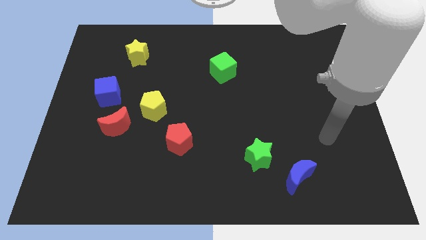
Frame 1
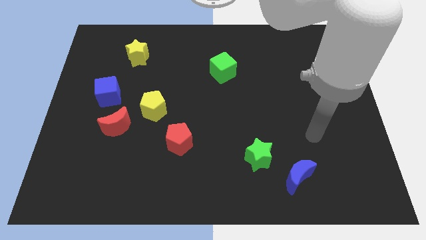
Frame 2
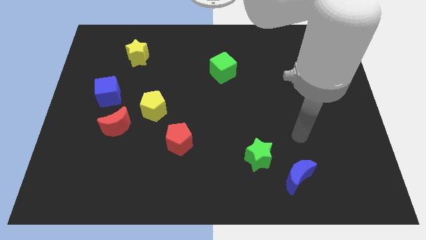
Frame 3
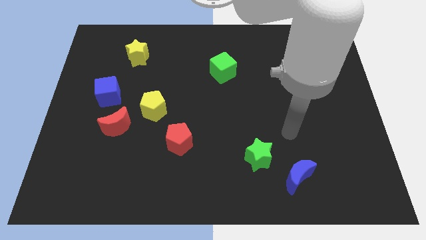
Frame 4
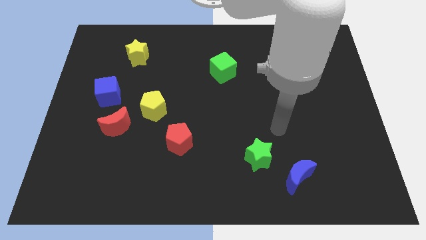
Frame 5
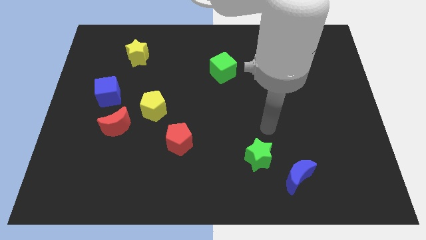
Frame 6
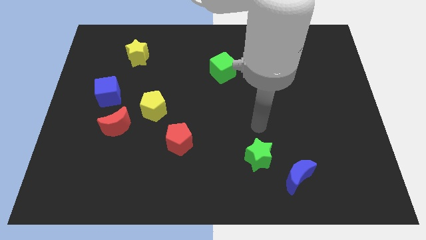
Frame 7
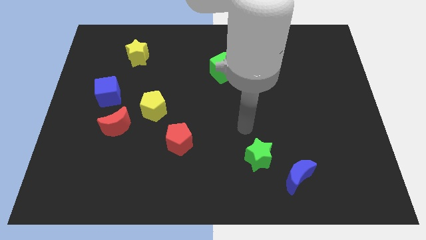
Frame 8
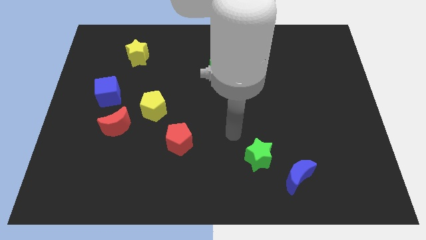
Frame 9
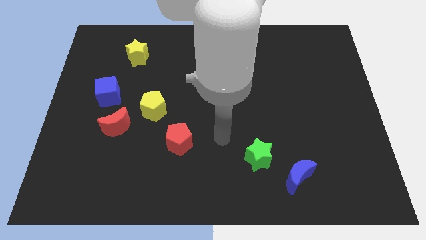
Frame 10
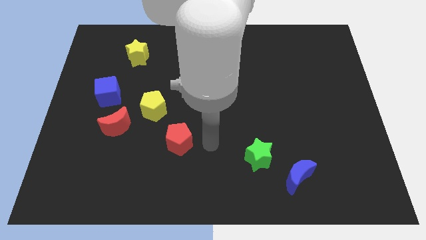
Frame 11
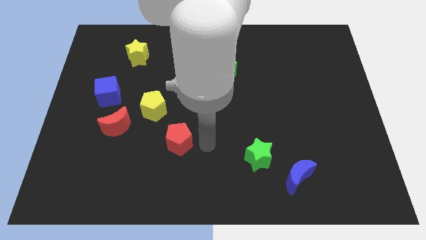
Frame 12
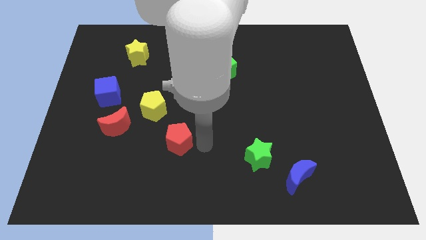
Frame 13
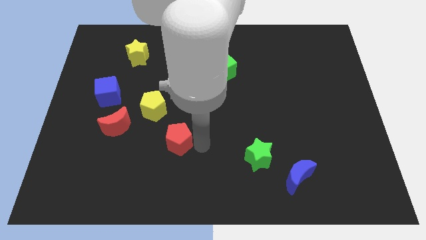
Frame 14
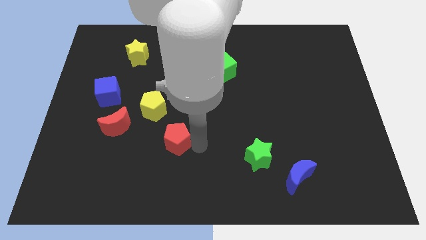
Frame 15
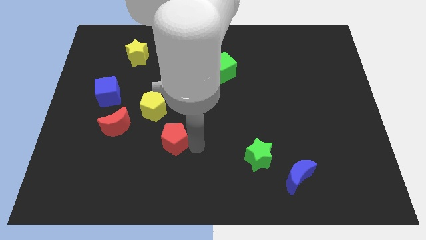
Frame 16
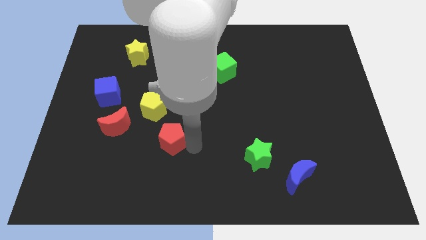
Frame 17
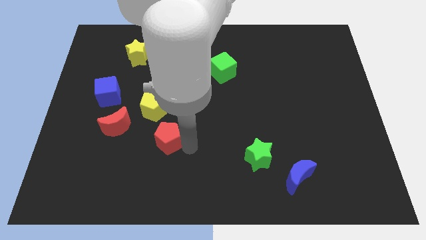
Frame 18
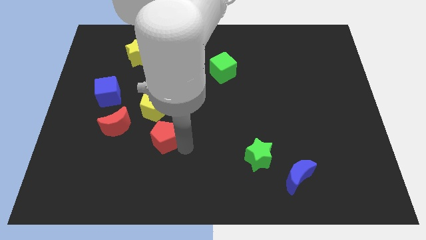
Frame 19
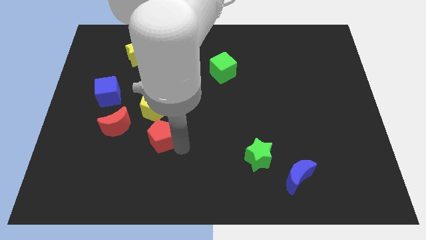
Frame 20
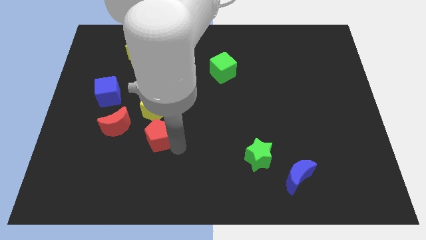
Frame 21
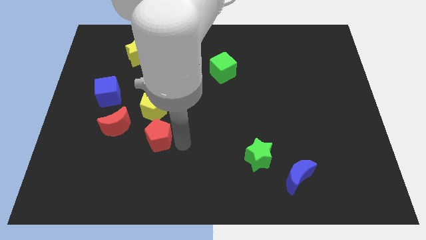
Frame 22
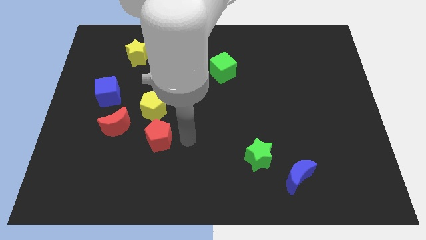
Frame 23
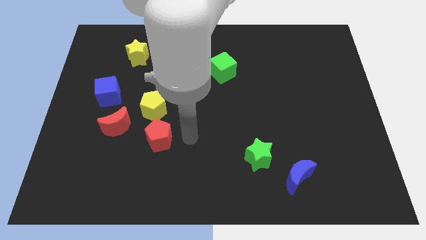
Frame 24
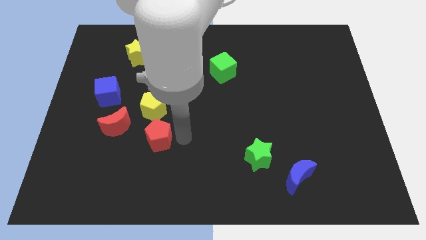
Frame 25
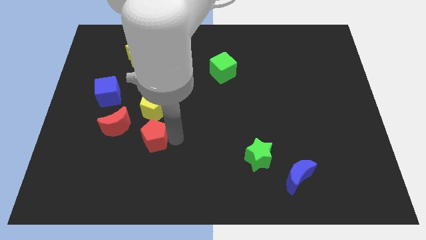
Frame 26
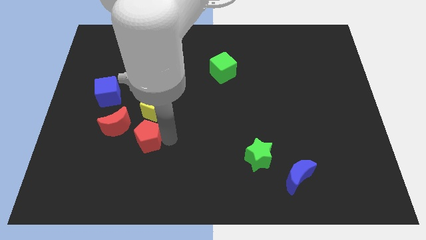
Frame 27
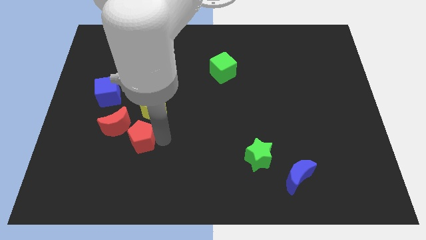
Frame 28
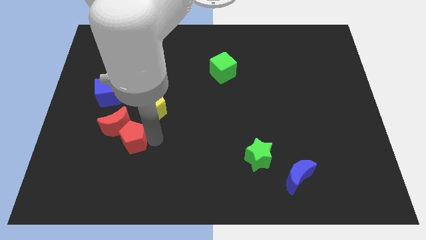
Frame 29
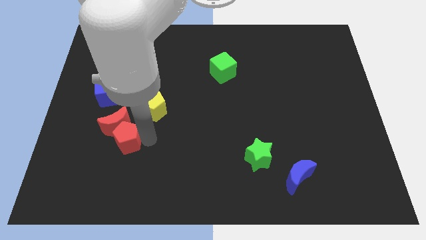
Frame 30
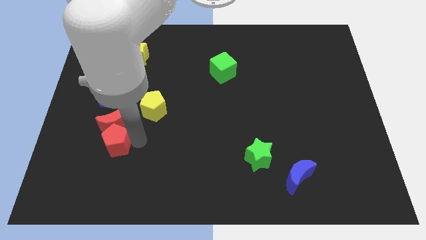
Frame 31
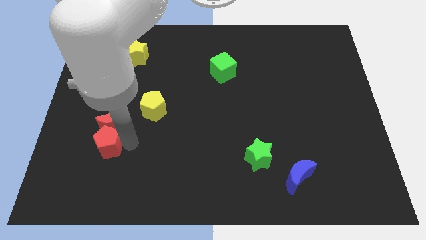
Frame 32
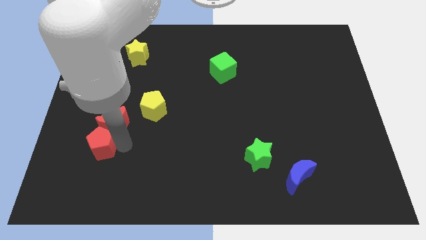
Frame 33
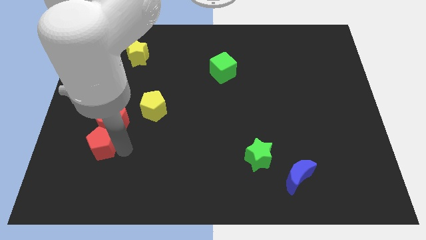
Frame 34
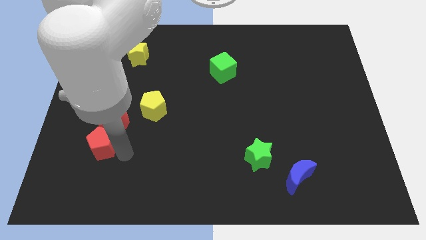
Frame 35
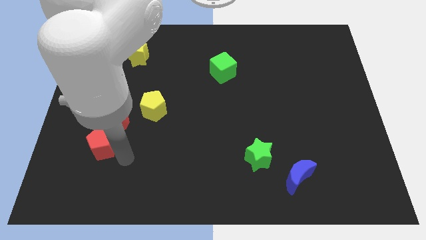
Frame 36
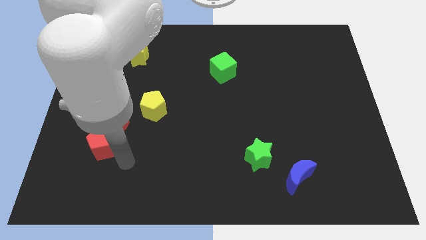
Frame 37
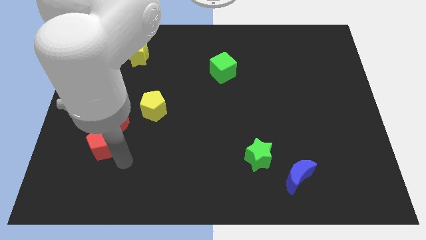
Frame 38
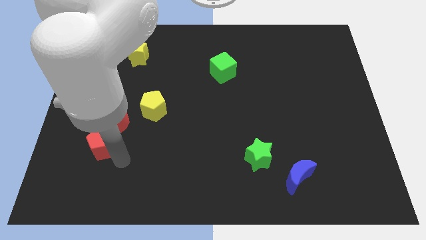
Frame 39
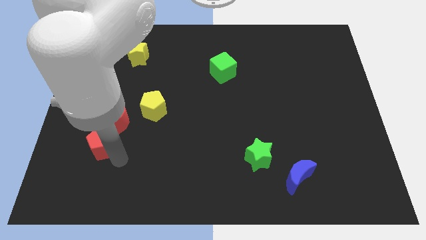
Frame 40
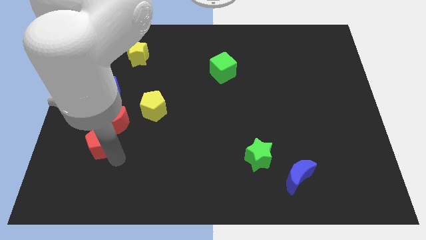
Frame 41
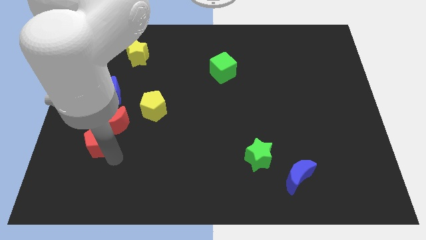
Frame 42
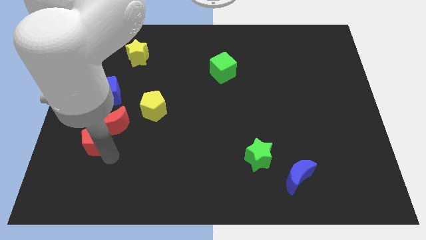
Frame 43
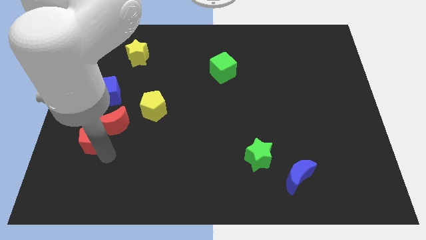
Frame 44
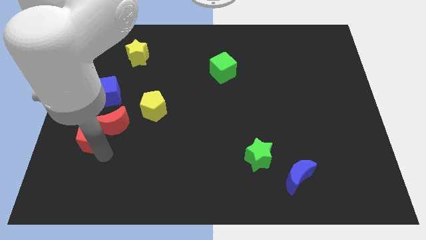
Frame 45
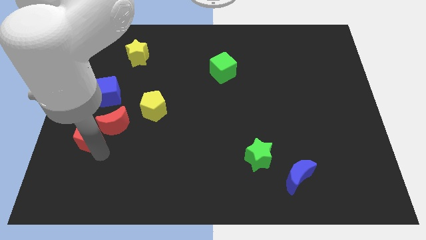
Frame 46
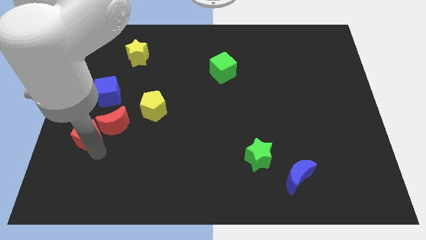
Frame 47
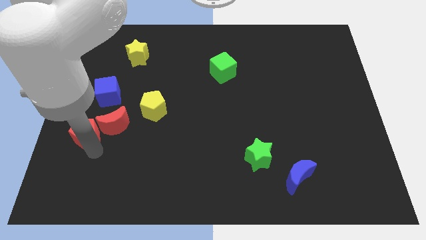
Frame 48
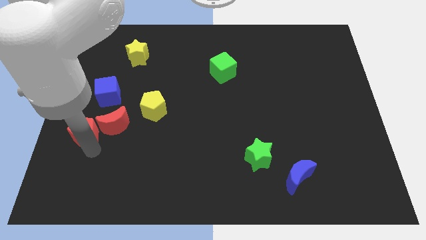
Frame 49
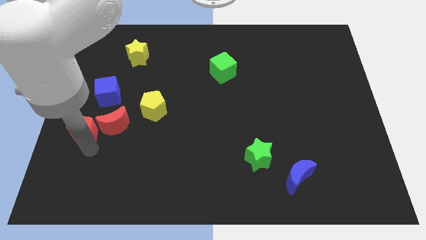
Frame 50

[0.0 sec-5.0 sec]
slide the red pentagon to the left side

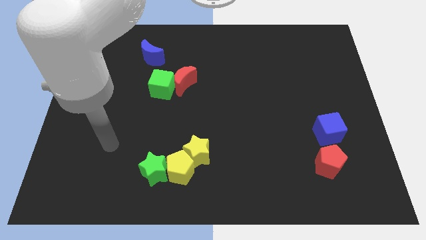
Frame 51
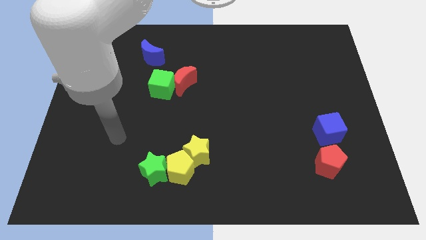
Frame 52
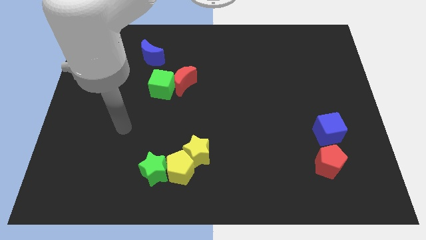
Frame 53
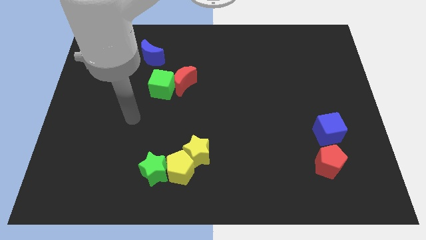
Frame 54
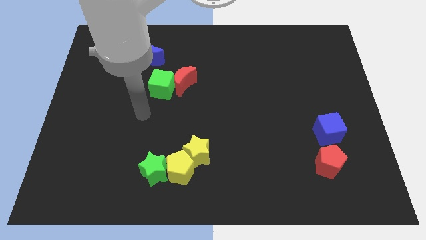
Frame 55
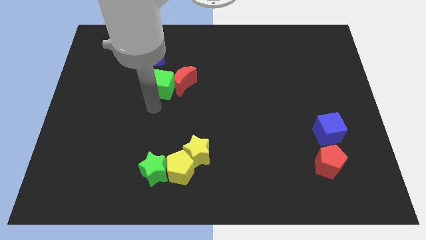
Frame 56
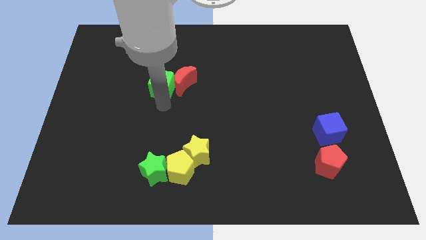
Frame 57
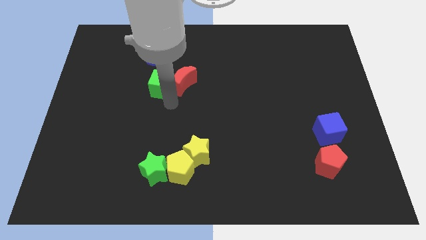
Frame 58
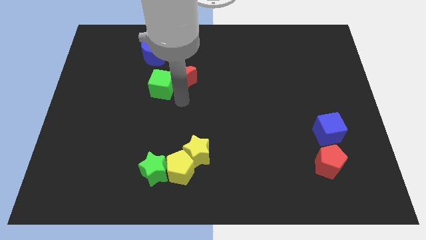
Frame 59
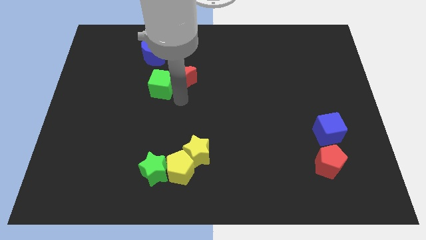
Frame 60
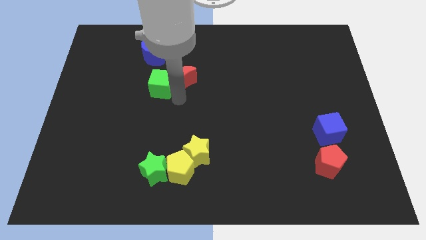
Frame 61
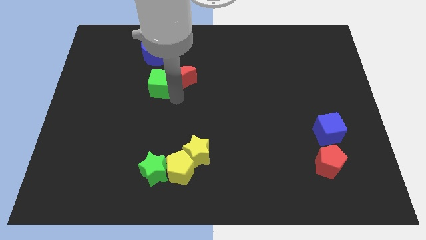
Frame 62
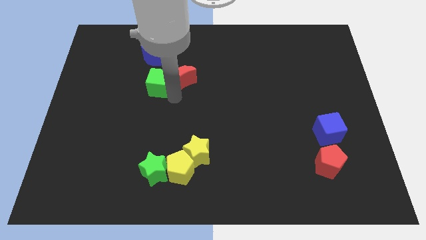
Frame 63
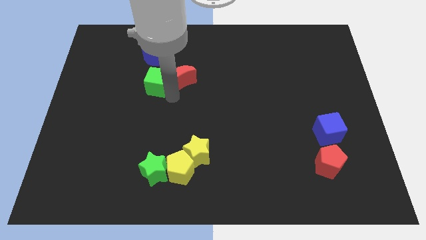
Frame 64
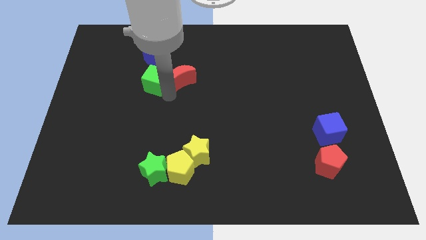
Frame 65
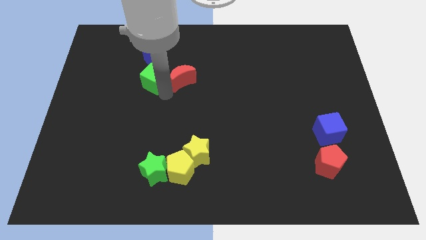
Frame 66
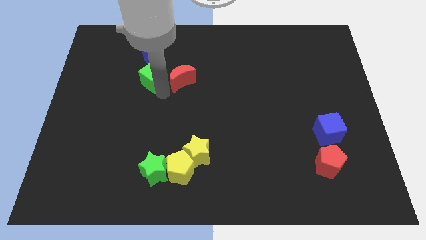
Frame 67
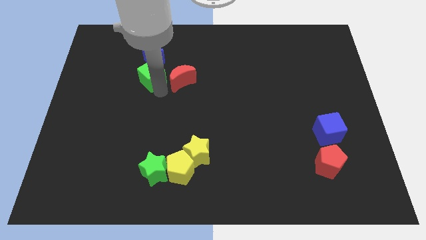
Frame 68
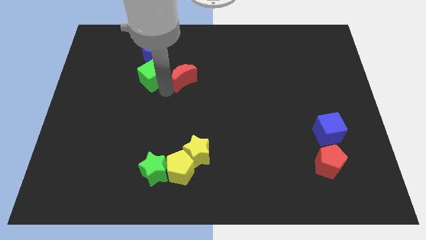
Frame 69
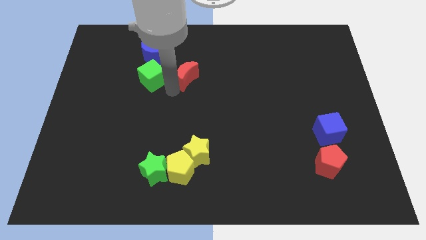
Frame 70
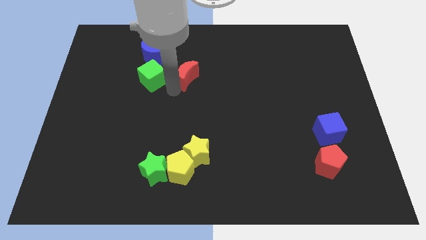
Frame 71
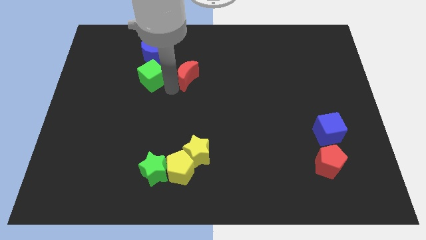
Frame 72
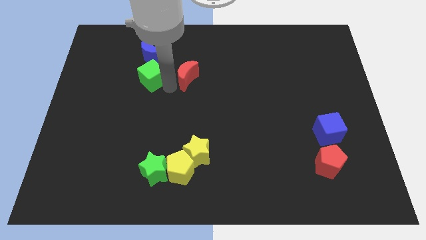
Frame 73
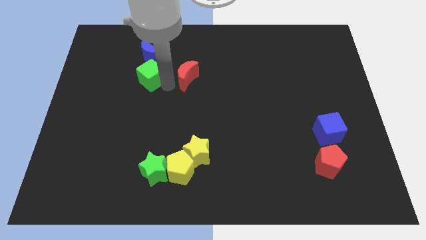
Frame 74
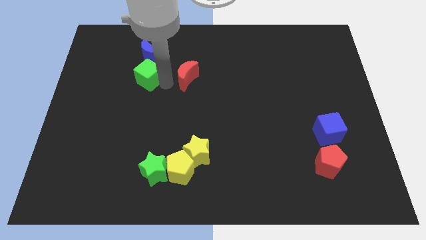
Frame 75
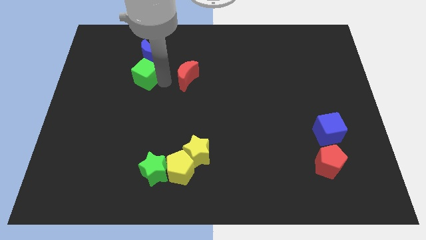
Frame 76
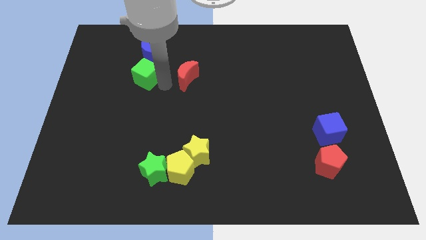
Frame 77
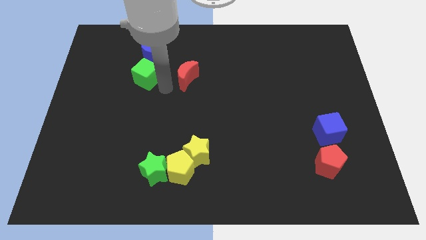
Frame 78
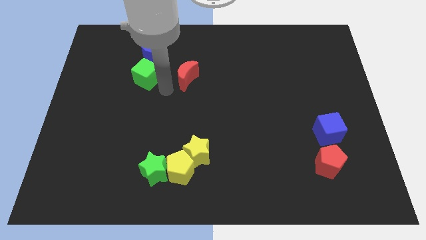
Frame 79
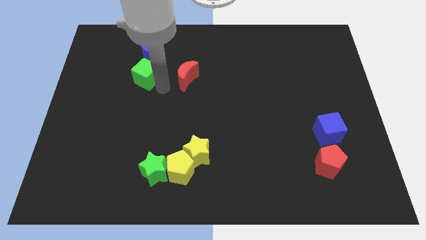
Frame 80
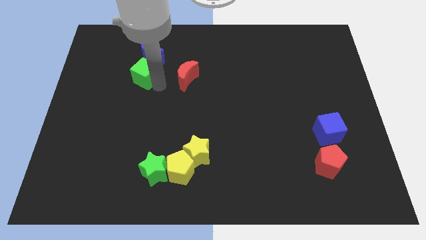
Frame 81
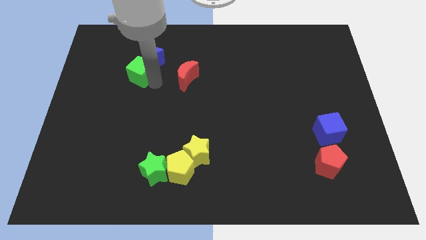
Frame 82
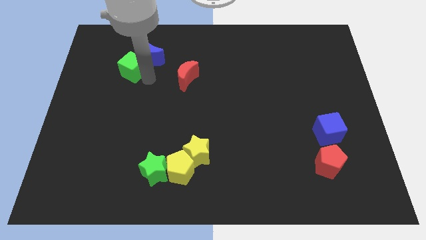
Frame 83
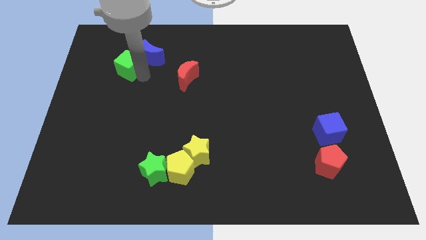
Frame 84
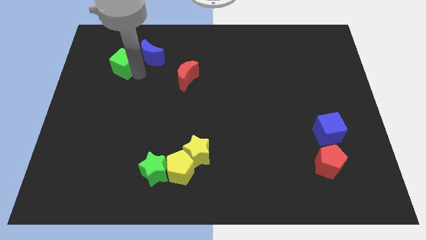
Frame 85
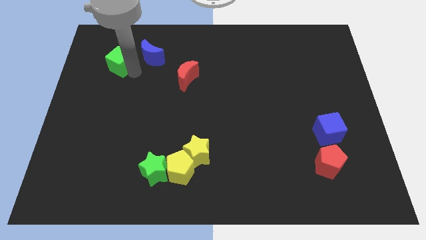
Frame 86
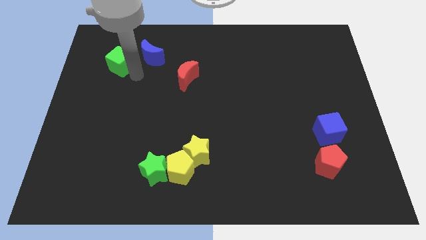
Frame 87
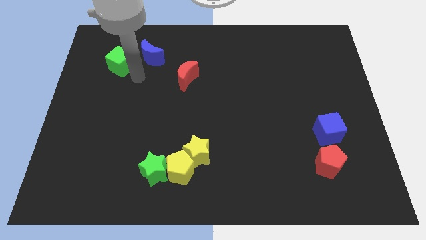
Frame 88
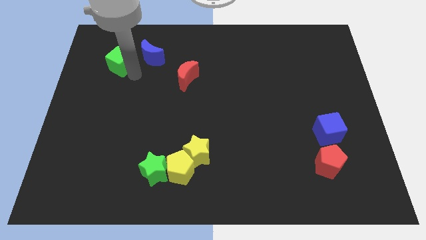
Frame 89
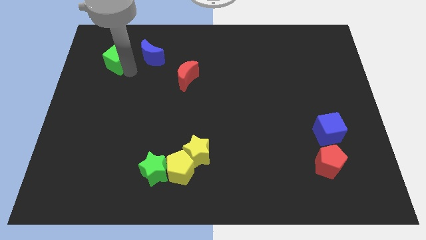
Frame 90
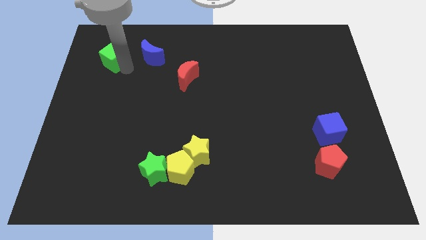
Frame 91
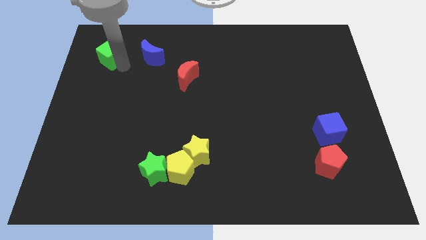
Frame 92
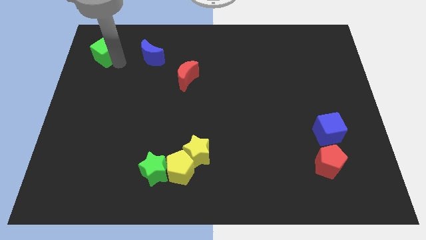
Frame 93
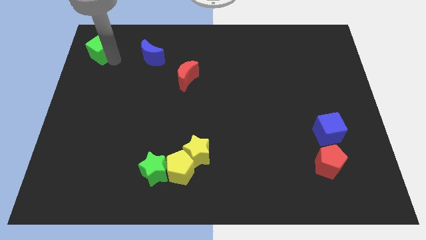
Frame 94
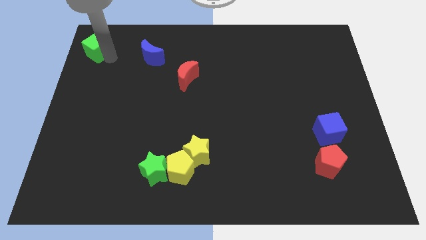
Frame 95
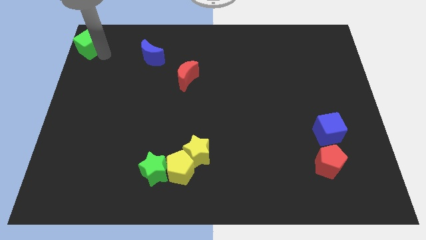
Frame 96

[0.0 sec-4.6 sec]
slide the green cube to the top left
